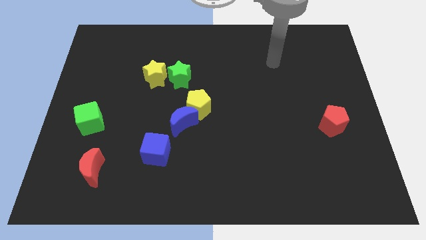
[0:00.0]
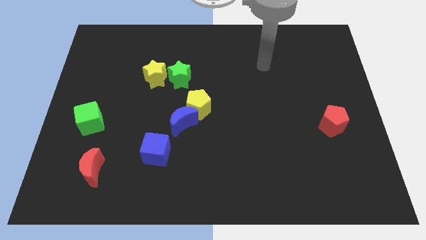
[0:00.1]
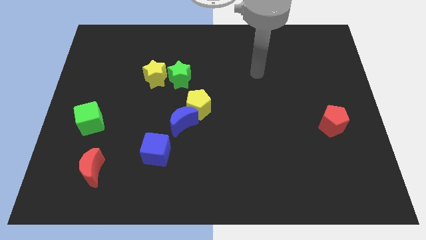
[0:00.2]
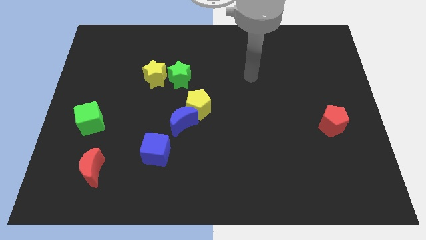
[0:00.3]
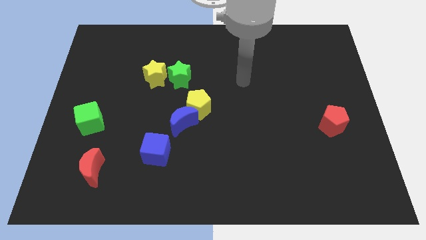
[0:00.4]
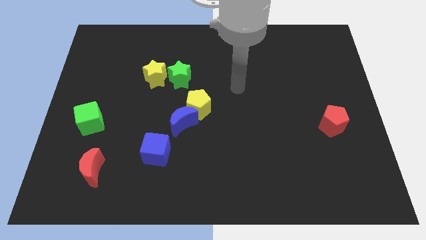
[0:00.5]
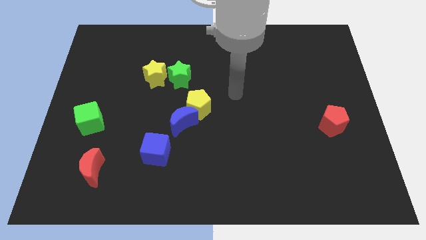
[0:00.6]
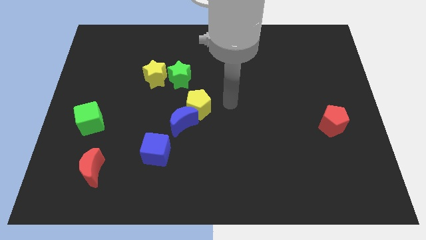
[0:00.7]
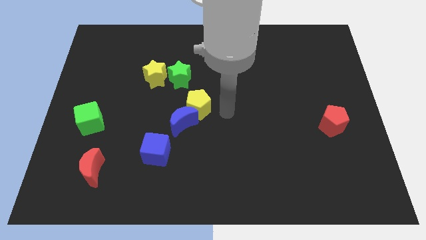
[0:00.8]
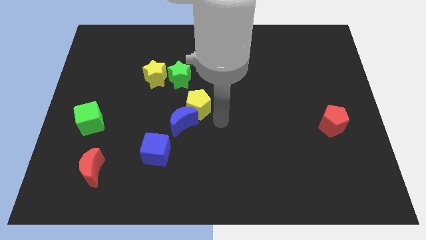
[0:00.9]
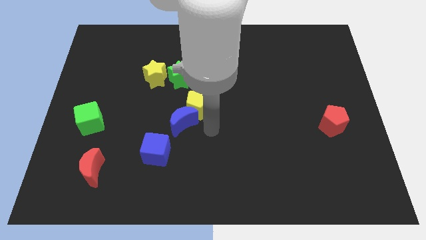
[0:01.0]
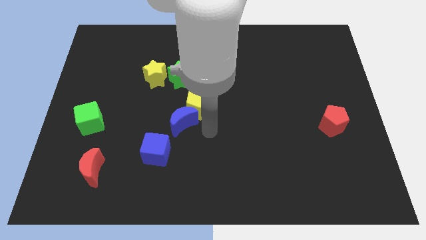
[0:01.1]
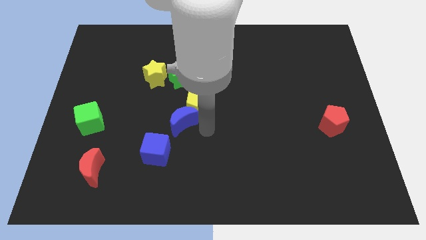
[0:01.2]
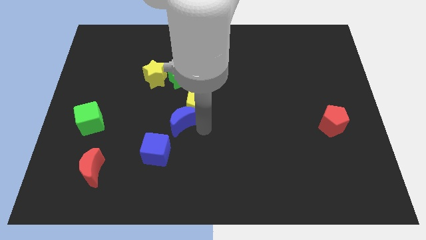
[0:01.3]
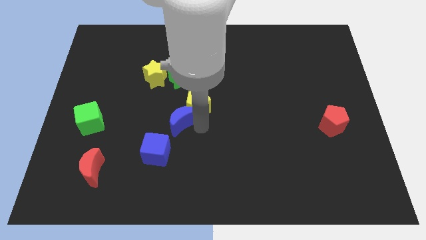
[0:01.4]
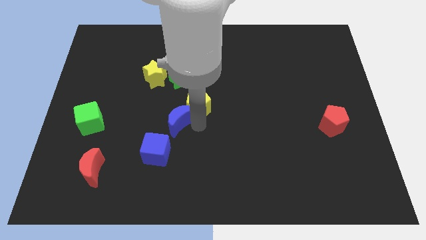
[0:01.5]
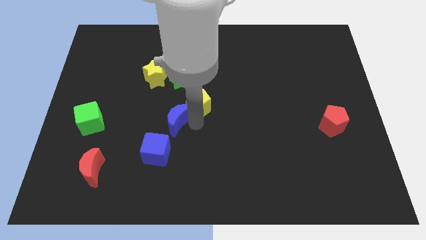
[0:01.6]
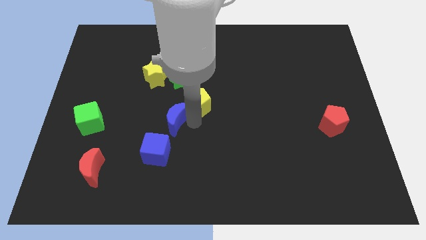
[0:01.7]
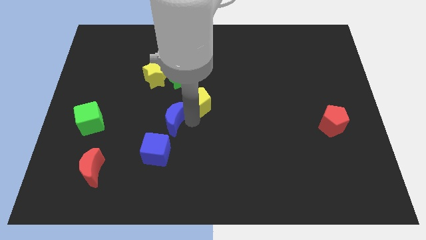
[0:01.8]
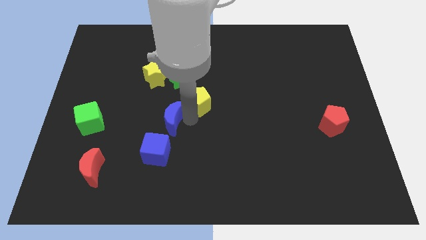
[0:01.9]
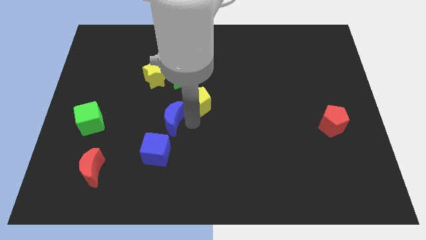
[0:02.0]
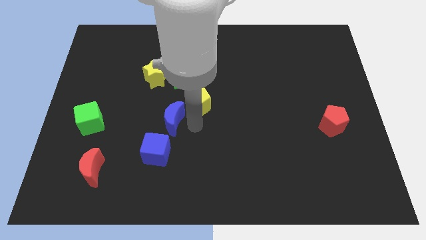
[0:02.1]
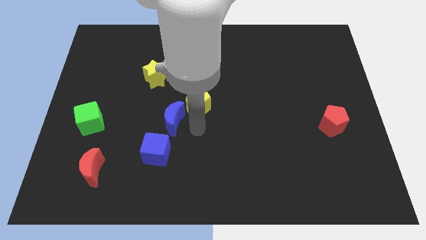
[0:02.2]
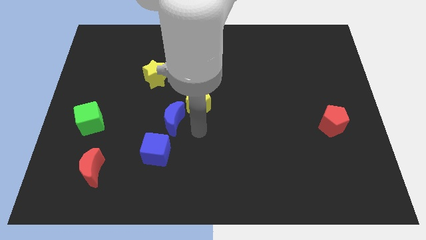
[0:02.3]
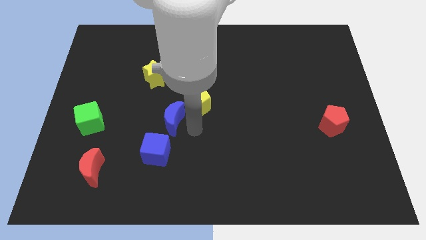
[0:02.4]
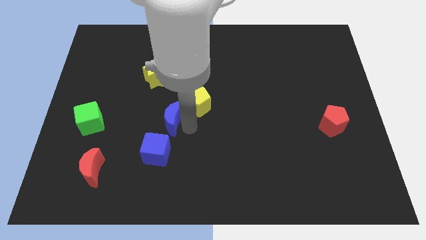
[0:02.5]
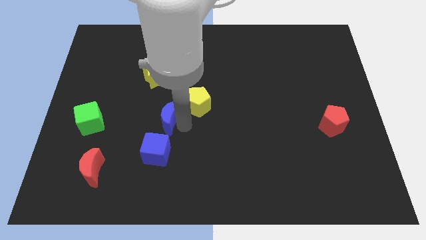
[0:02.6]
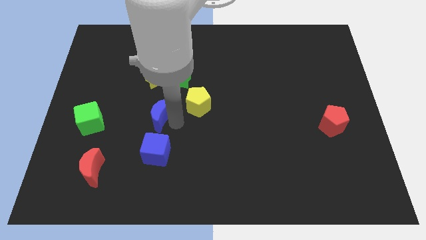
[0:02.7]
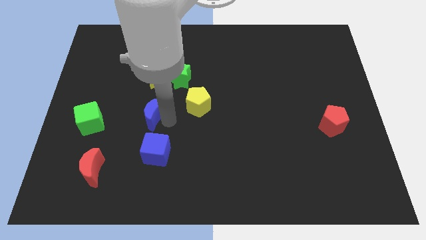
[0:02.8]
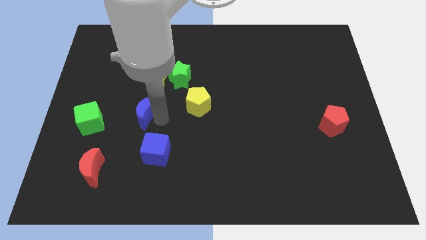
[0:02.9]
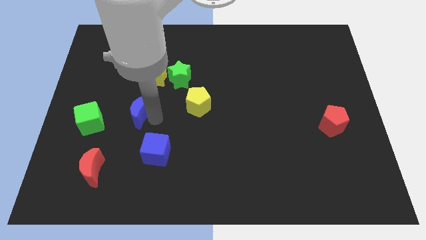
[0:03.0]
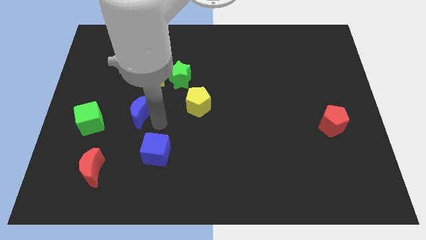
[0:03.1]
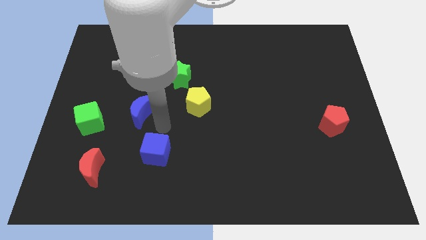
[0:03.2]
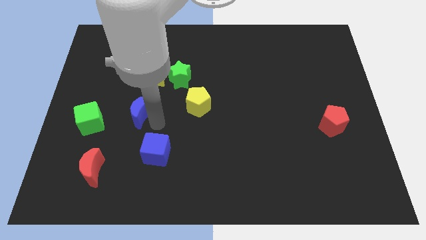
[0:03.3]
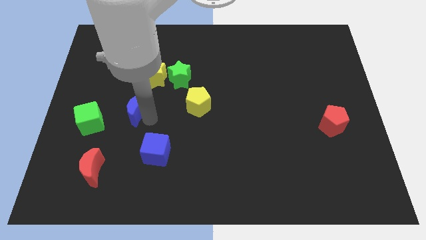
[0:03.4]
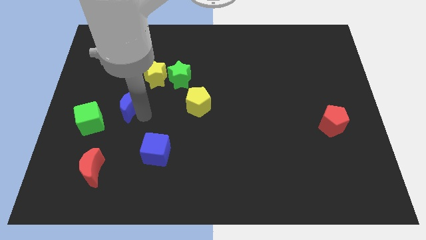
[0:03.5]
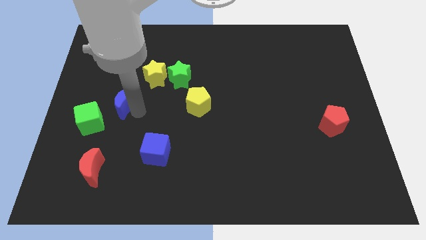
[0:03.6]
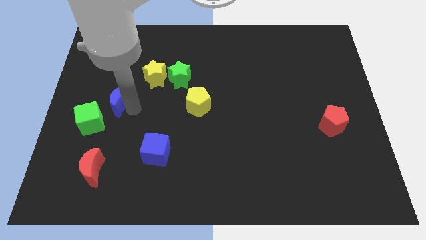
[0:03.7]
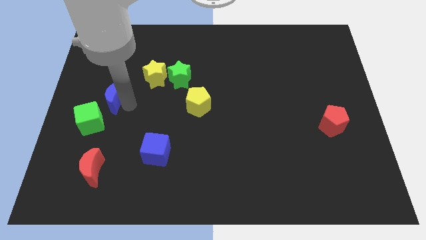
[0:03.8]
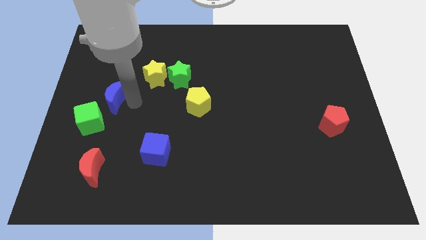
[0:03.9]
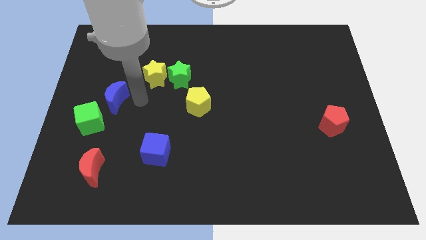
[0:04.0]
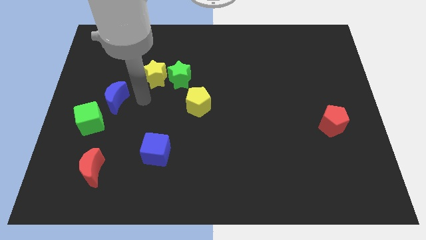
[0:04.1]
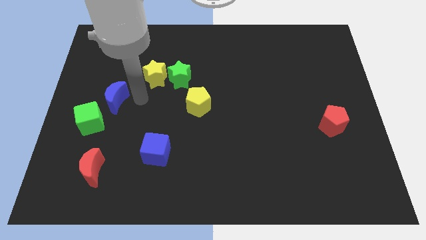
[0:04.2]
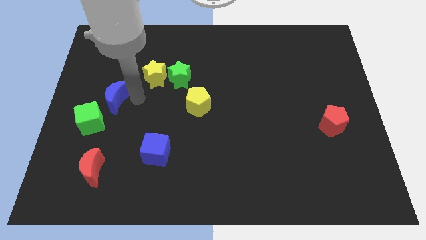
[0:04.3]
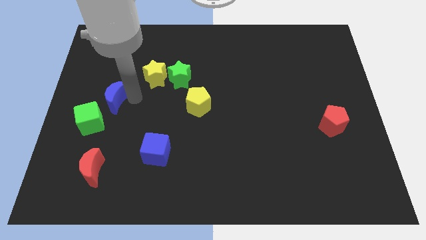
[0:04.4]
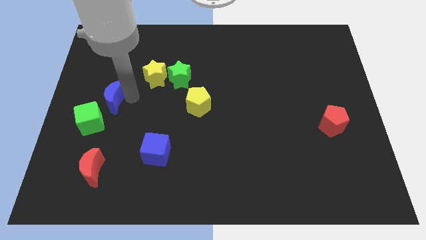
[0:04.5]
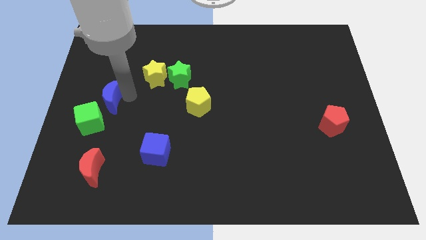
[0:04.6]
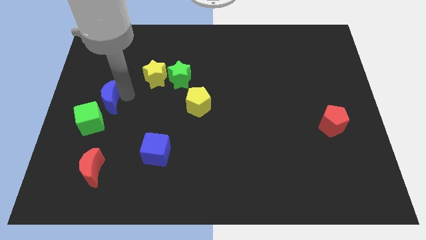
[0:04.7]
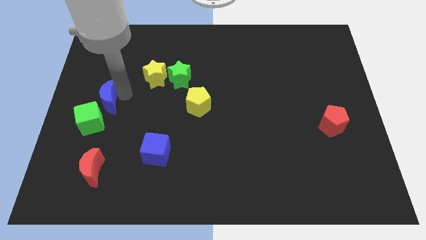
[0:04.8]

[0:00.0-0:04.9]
slide the blue moon to the left side

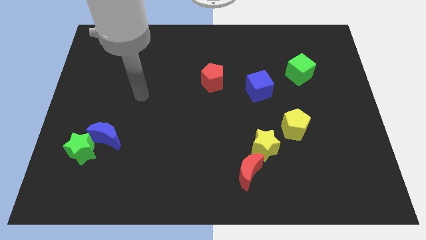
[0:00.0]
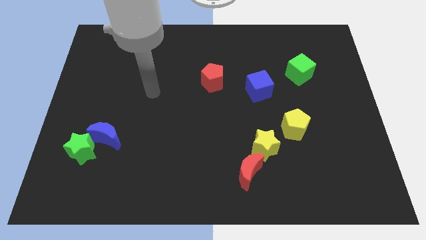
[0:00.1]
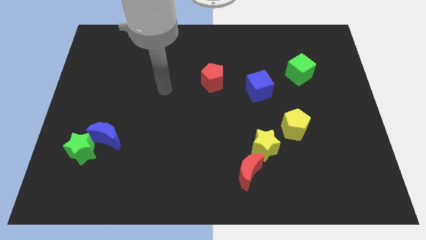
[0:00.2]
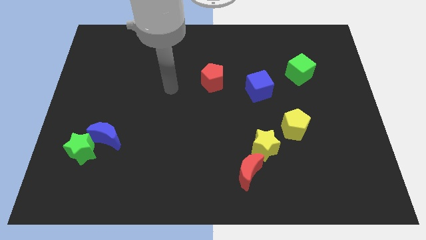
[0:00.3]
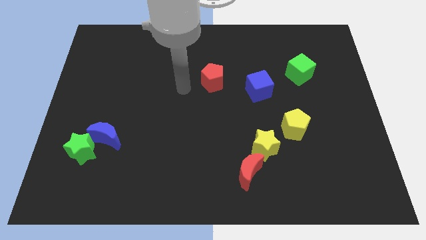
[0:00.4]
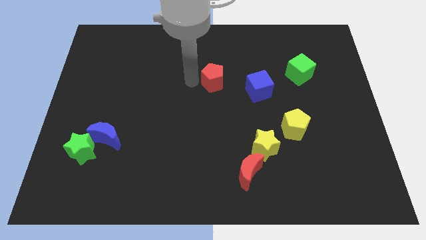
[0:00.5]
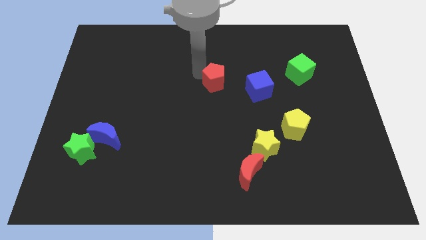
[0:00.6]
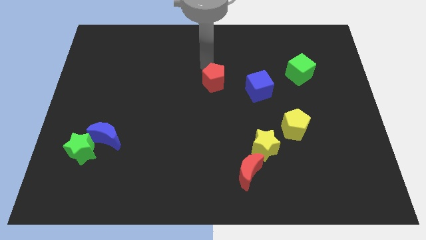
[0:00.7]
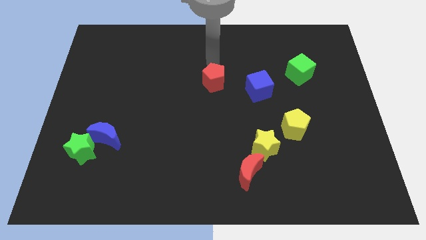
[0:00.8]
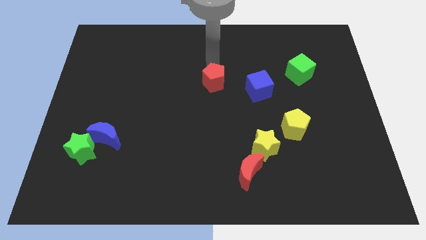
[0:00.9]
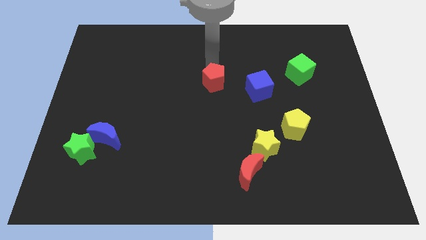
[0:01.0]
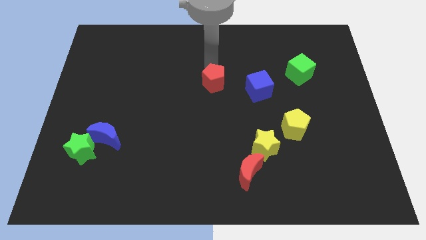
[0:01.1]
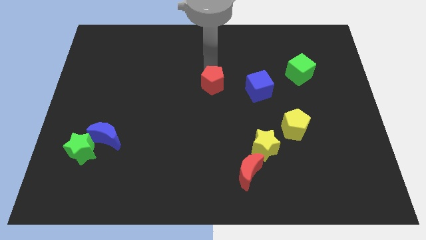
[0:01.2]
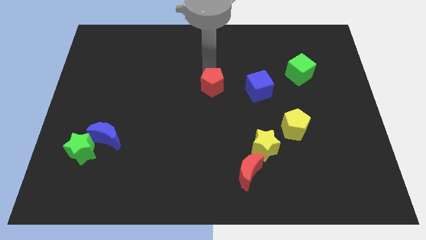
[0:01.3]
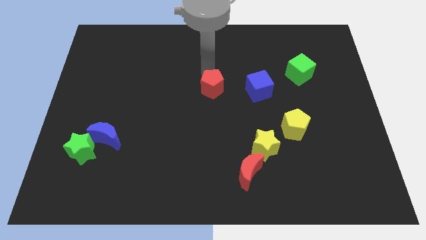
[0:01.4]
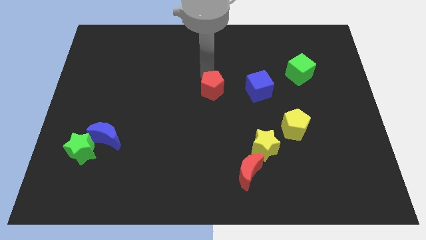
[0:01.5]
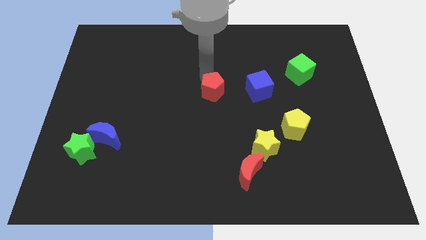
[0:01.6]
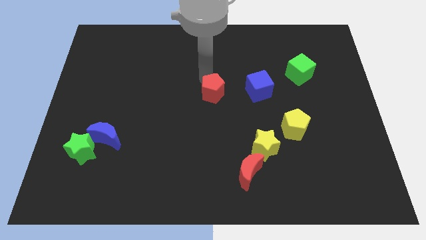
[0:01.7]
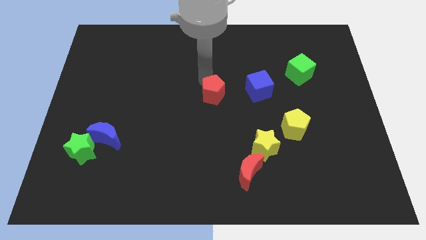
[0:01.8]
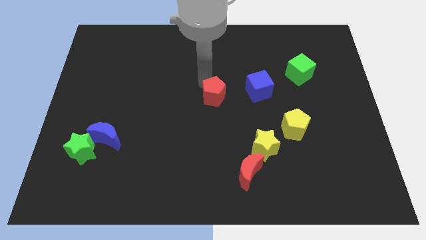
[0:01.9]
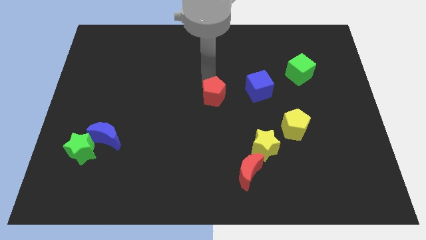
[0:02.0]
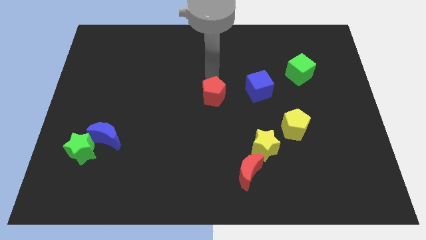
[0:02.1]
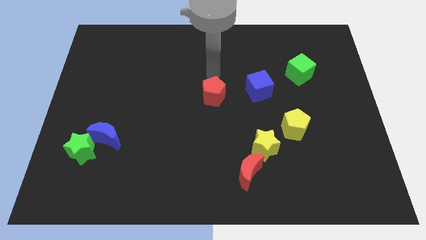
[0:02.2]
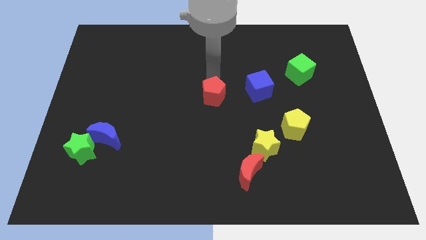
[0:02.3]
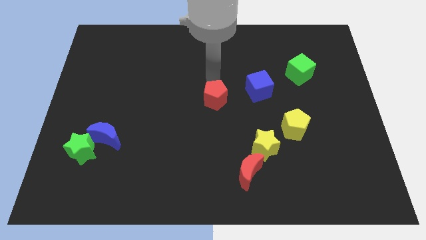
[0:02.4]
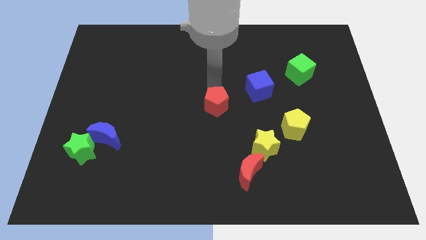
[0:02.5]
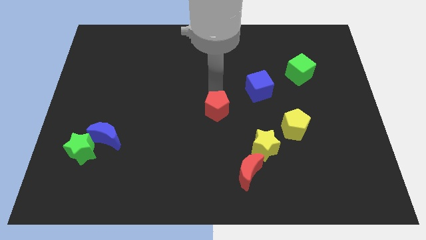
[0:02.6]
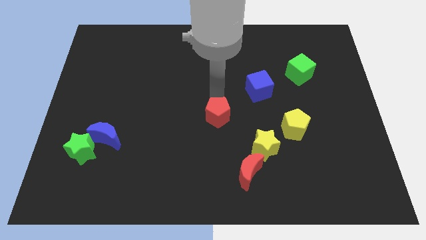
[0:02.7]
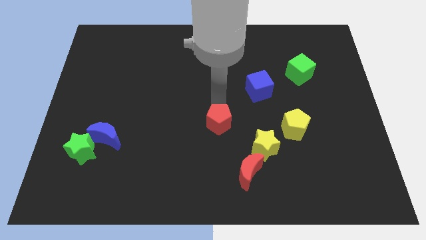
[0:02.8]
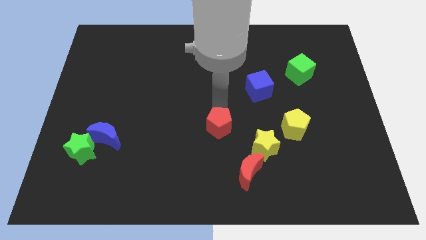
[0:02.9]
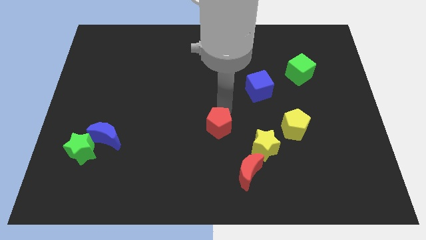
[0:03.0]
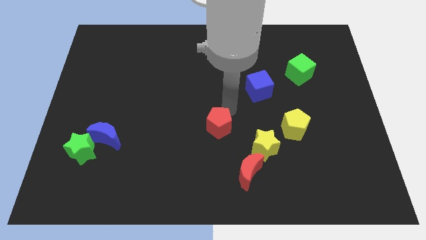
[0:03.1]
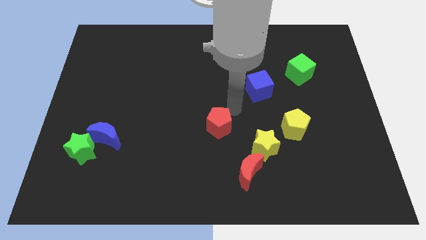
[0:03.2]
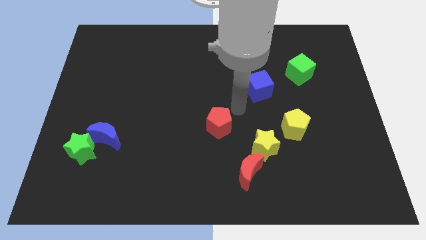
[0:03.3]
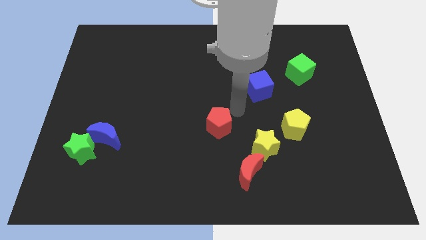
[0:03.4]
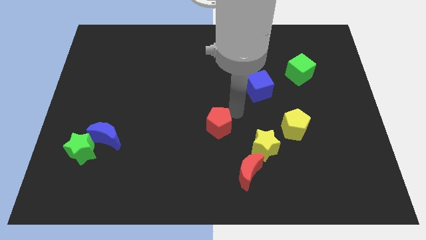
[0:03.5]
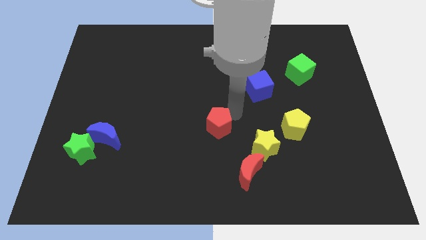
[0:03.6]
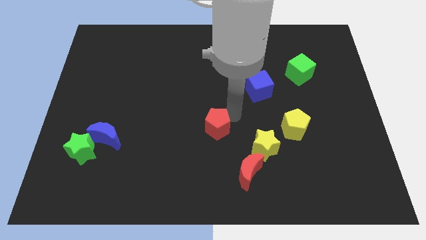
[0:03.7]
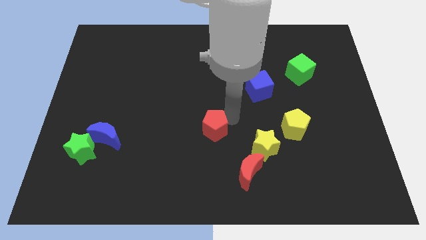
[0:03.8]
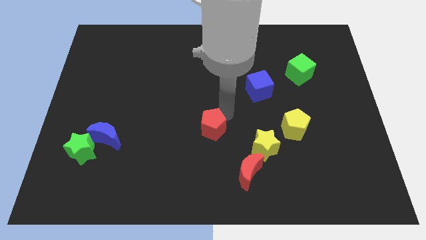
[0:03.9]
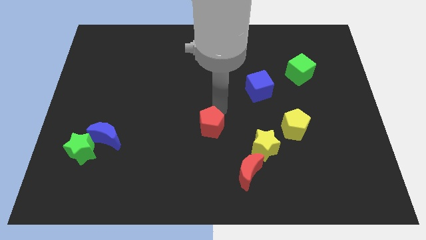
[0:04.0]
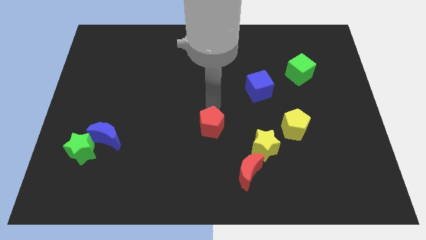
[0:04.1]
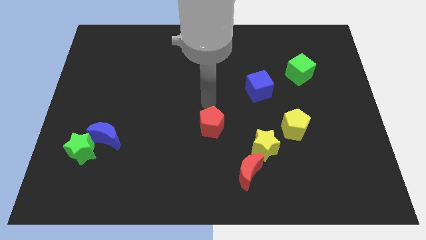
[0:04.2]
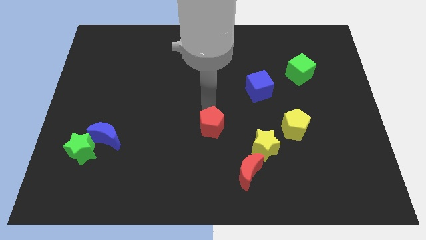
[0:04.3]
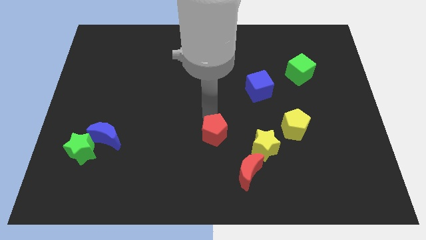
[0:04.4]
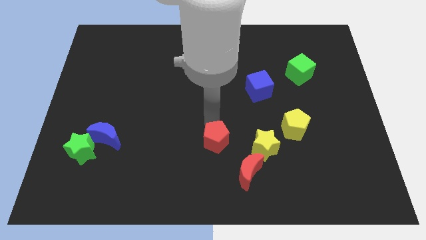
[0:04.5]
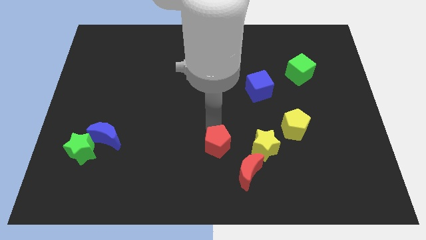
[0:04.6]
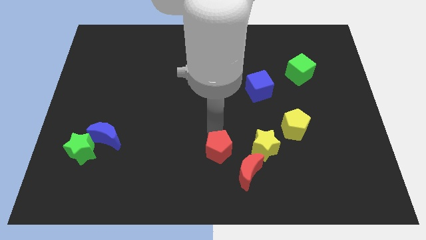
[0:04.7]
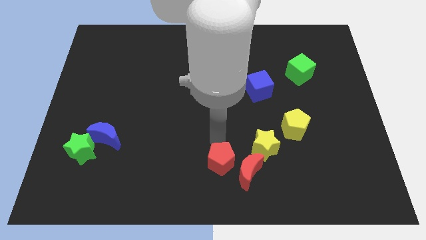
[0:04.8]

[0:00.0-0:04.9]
put the red pentagon to the bottom
